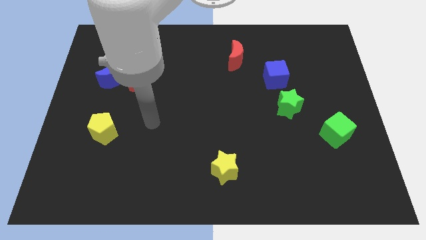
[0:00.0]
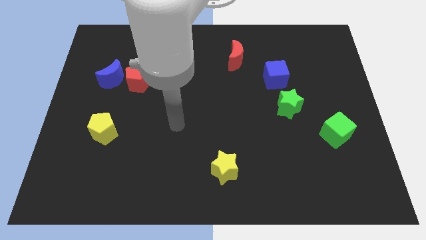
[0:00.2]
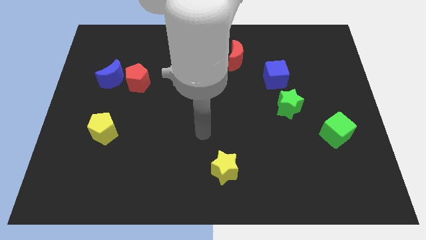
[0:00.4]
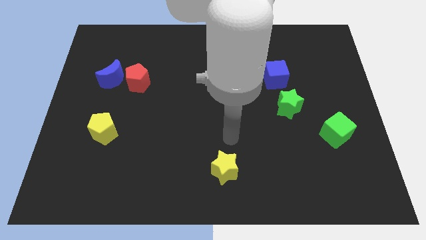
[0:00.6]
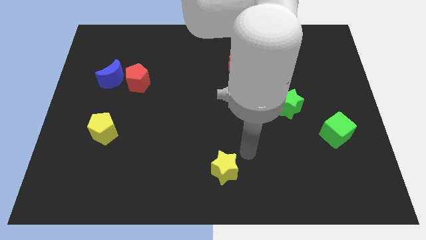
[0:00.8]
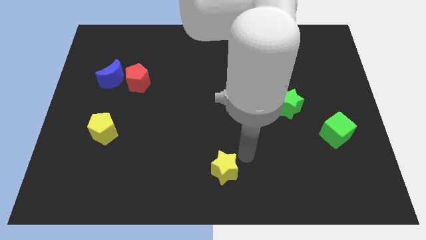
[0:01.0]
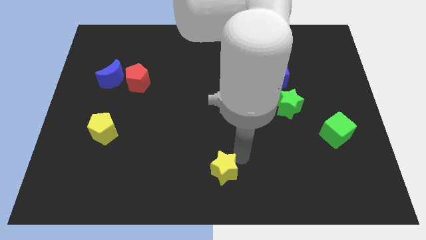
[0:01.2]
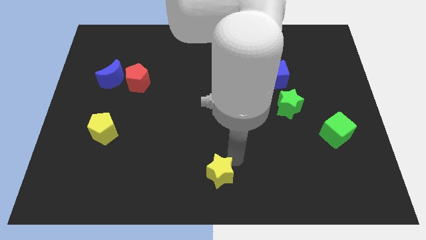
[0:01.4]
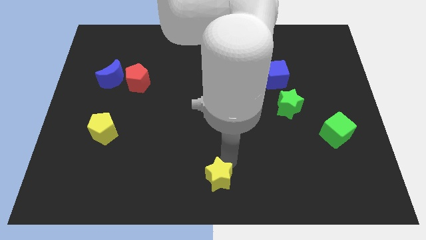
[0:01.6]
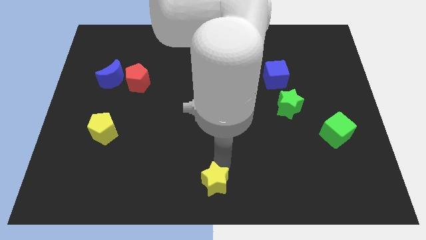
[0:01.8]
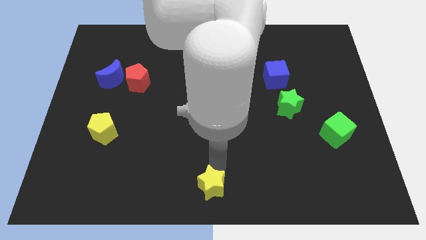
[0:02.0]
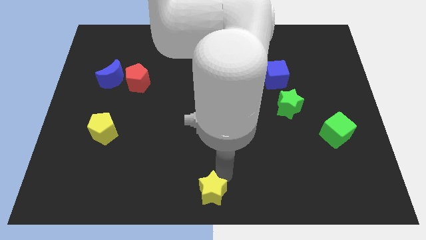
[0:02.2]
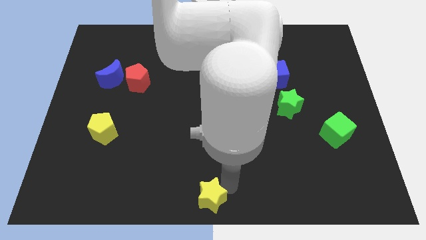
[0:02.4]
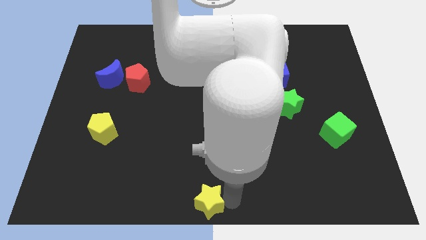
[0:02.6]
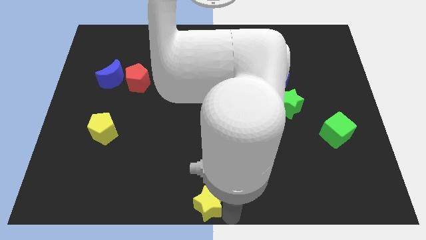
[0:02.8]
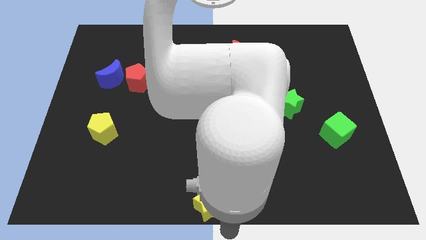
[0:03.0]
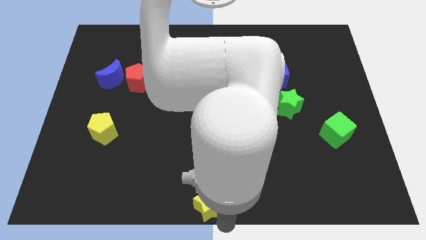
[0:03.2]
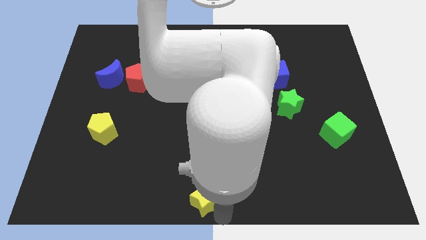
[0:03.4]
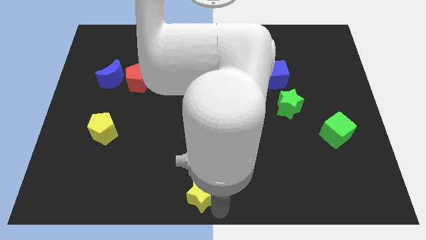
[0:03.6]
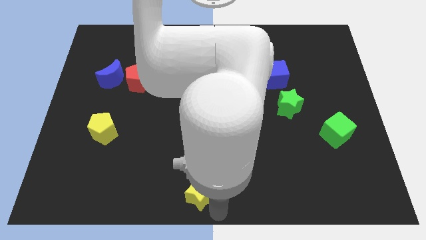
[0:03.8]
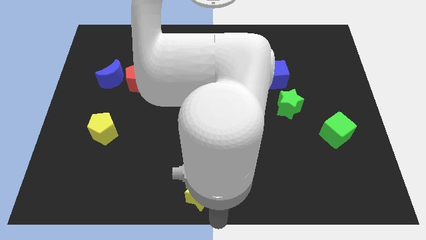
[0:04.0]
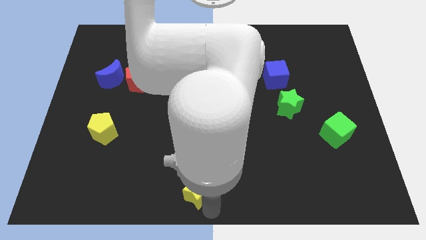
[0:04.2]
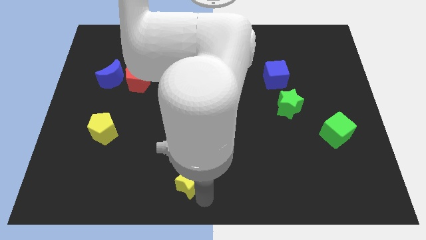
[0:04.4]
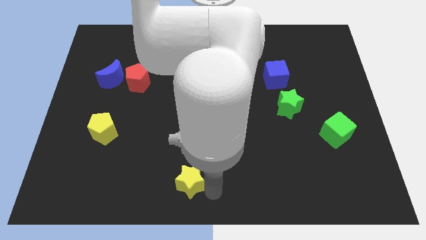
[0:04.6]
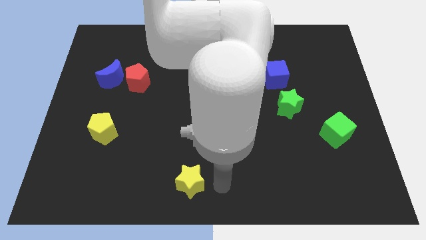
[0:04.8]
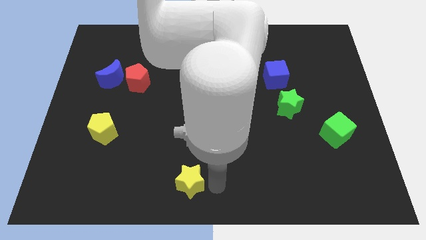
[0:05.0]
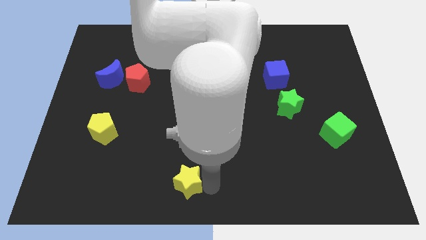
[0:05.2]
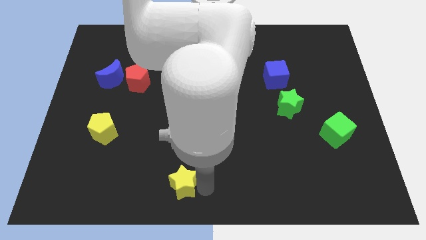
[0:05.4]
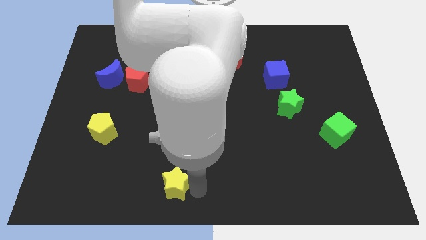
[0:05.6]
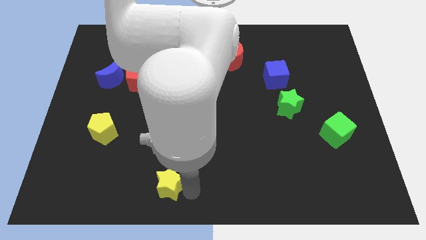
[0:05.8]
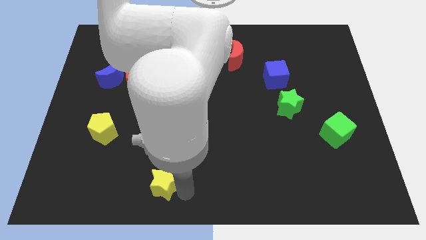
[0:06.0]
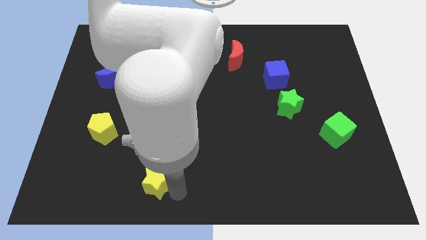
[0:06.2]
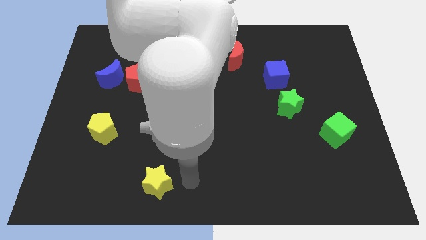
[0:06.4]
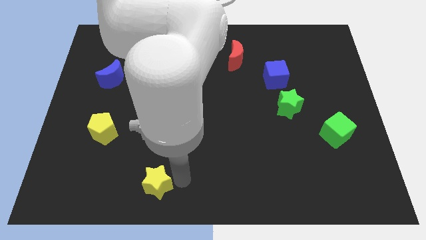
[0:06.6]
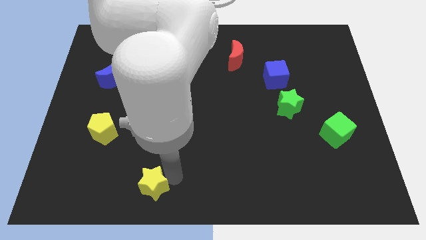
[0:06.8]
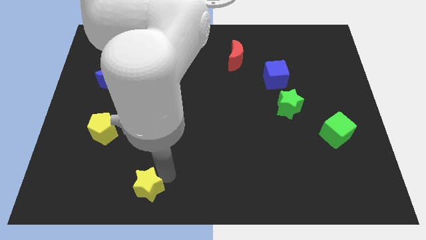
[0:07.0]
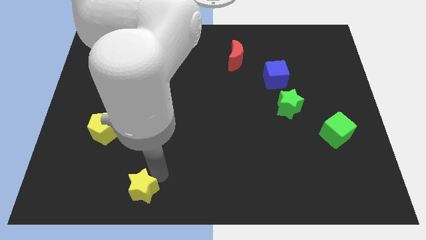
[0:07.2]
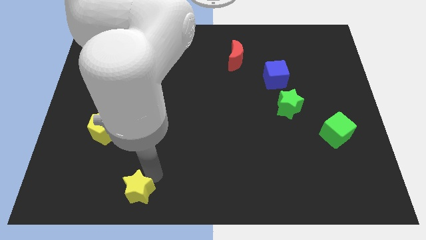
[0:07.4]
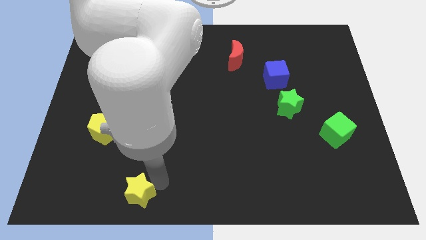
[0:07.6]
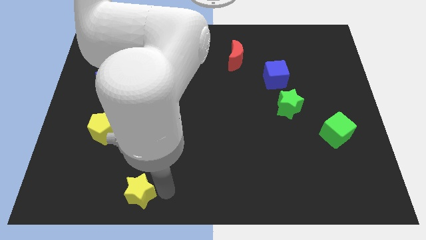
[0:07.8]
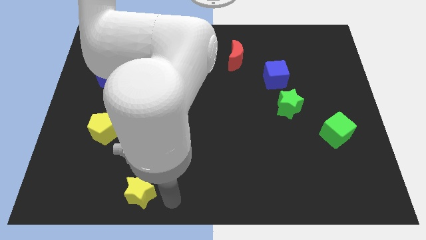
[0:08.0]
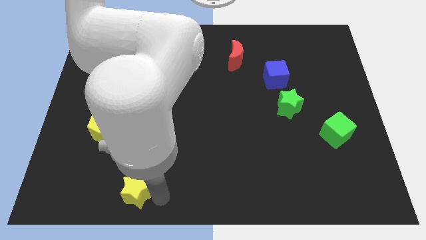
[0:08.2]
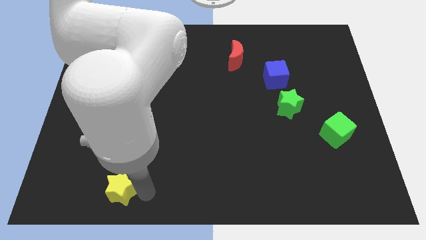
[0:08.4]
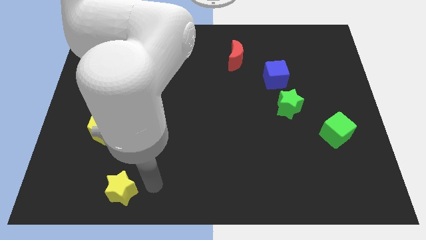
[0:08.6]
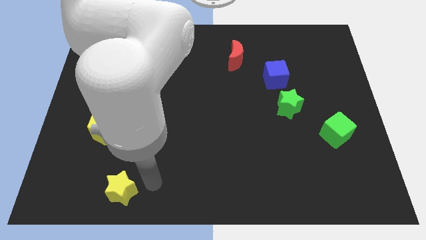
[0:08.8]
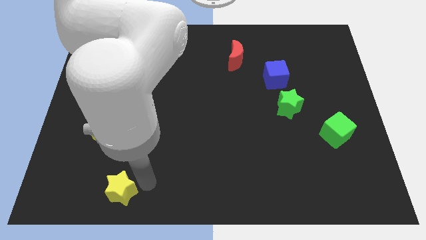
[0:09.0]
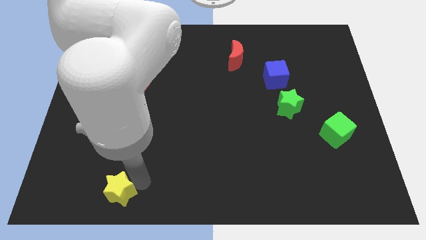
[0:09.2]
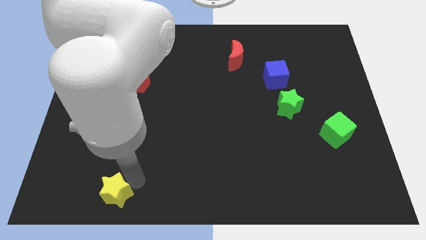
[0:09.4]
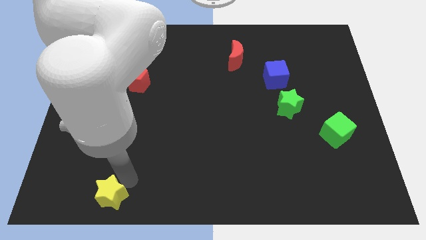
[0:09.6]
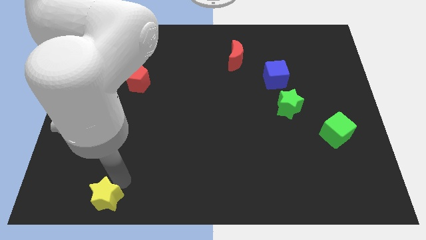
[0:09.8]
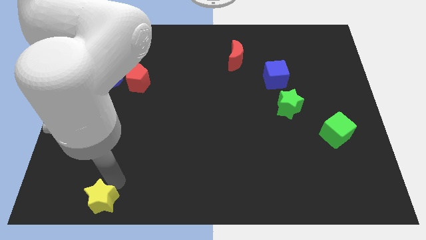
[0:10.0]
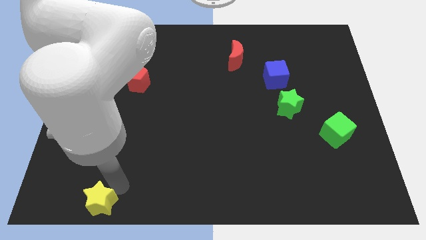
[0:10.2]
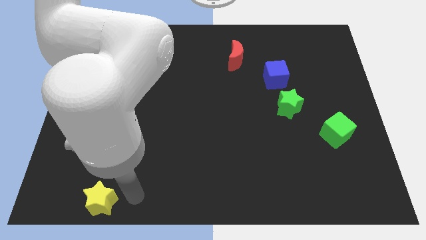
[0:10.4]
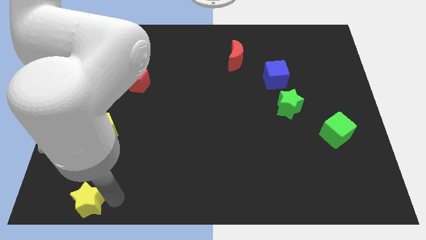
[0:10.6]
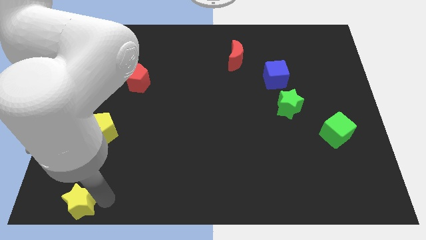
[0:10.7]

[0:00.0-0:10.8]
slide the yellow star to the bottom left

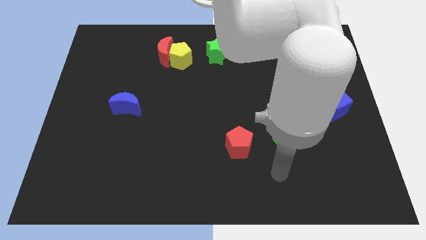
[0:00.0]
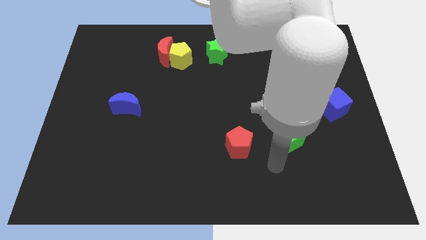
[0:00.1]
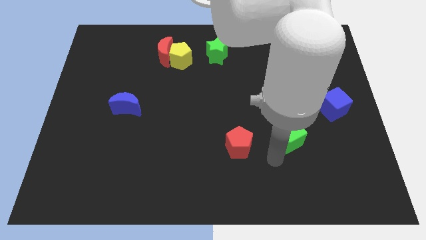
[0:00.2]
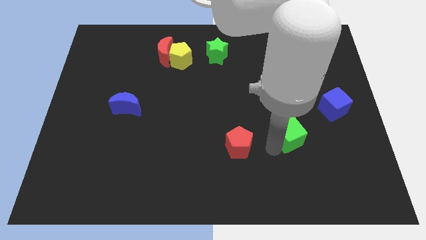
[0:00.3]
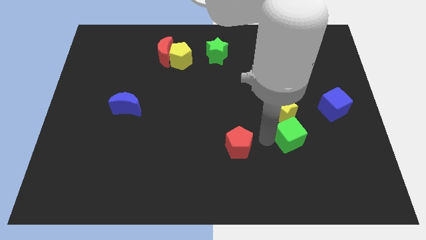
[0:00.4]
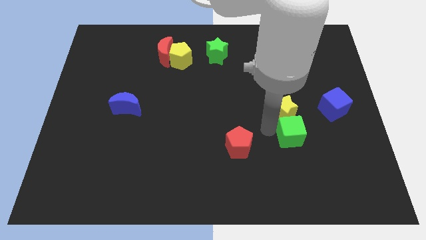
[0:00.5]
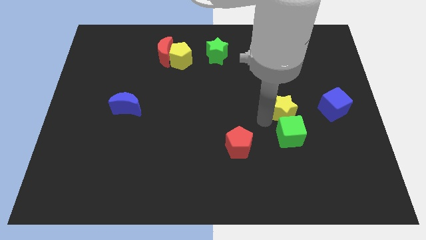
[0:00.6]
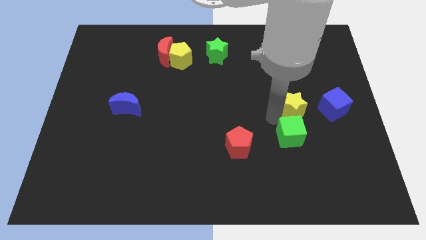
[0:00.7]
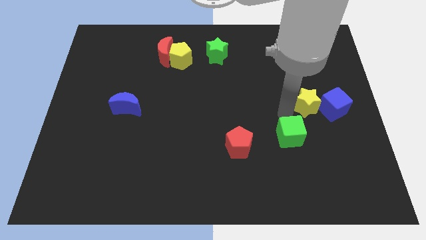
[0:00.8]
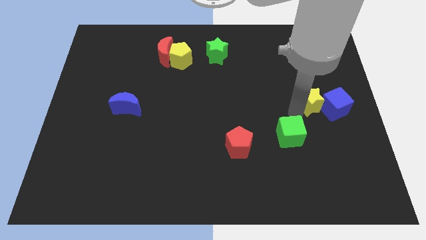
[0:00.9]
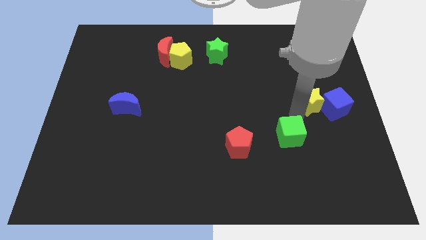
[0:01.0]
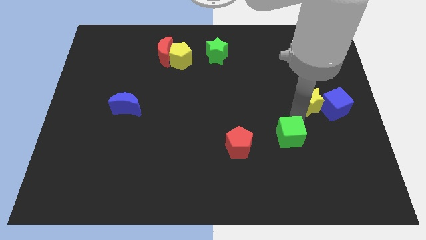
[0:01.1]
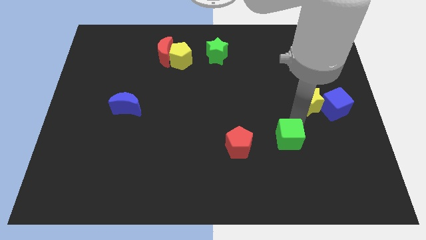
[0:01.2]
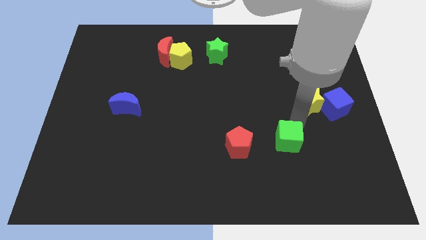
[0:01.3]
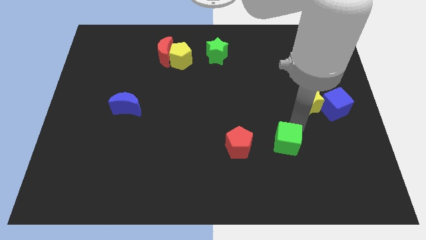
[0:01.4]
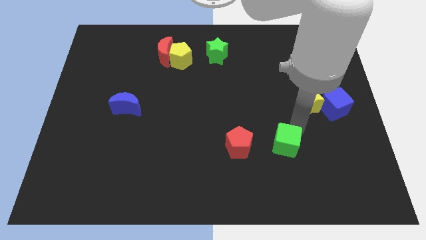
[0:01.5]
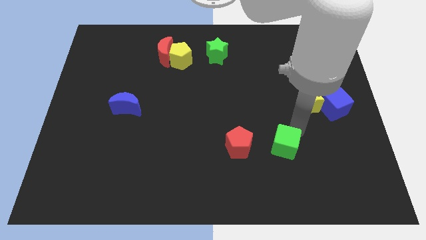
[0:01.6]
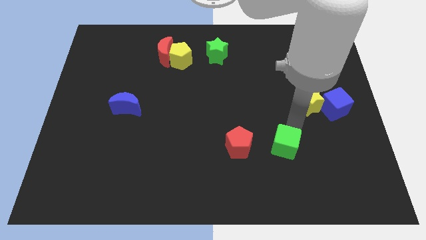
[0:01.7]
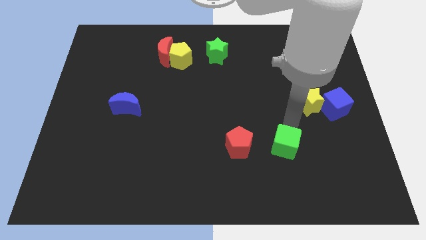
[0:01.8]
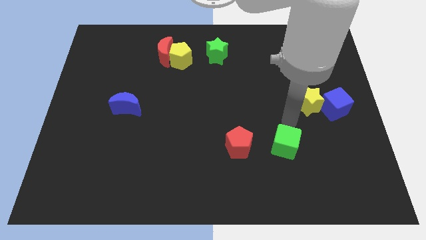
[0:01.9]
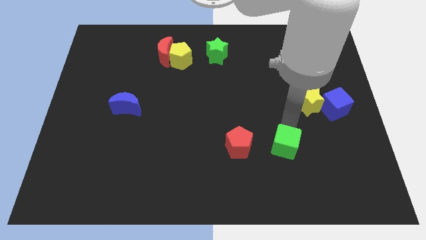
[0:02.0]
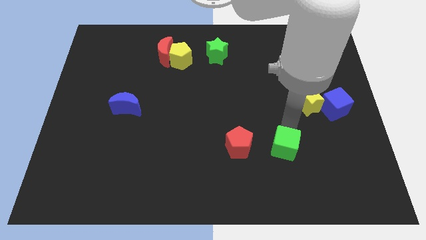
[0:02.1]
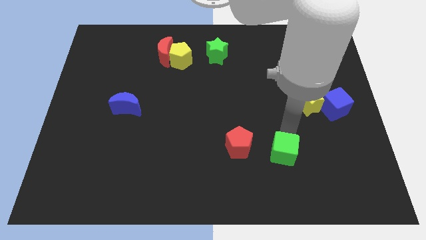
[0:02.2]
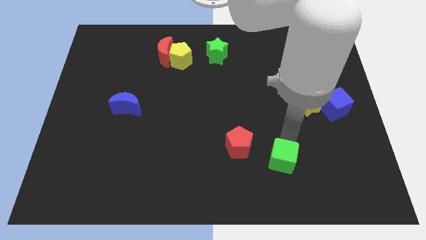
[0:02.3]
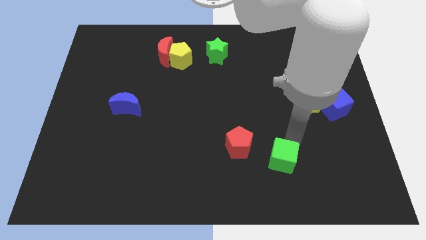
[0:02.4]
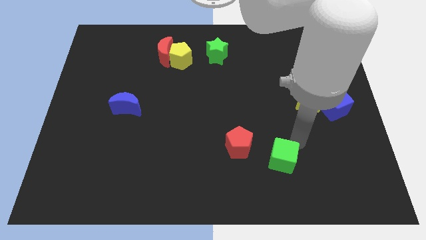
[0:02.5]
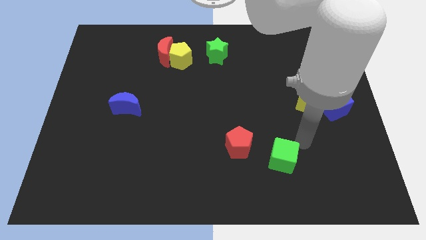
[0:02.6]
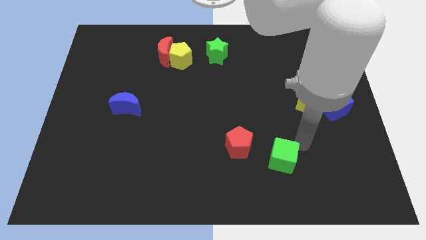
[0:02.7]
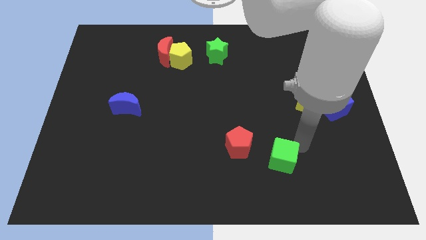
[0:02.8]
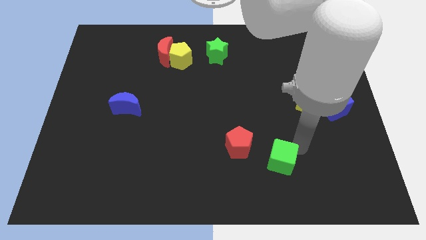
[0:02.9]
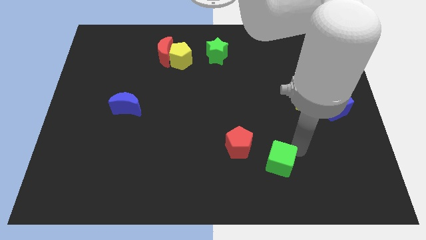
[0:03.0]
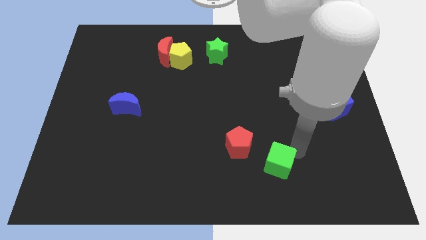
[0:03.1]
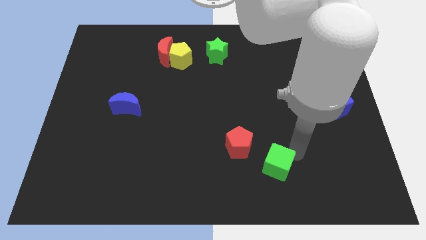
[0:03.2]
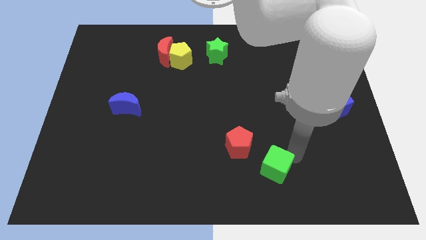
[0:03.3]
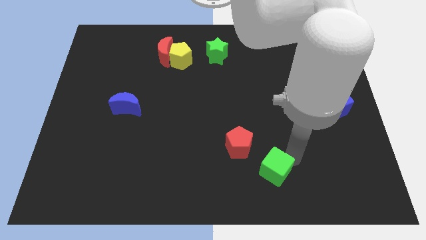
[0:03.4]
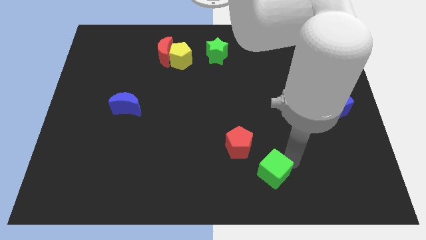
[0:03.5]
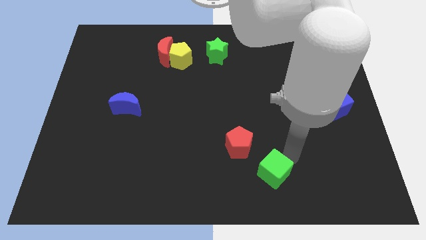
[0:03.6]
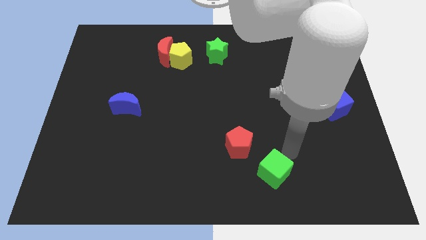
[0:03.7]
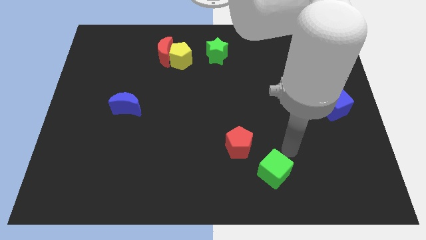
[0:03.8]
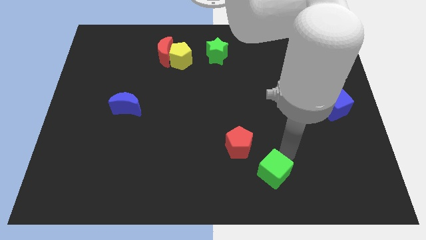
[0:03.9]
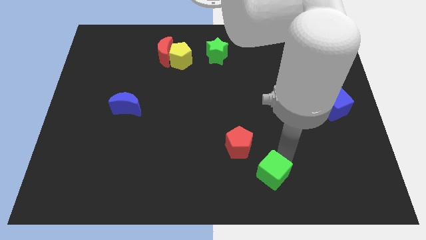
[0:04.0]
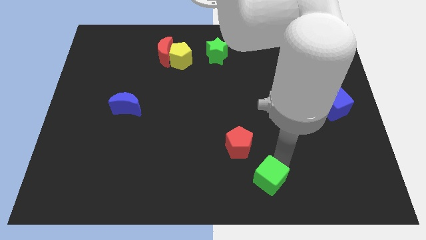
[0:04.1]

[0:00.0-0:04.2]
put the green cube to the bottom
